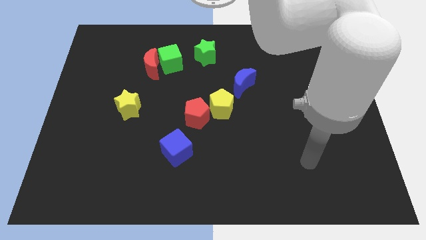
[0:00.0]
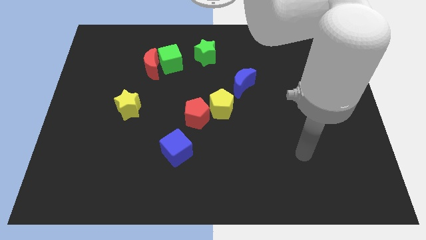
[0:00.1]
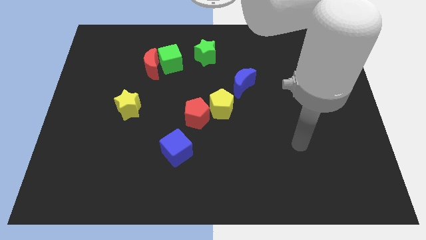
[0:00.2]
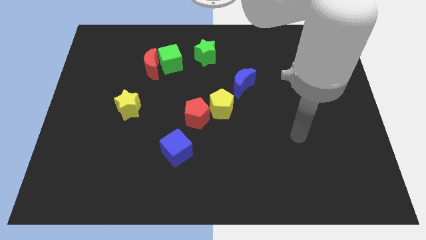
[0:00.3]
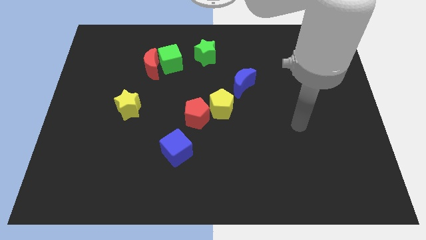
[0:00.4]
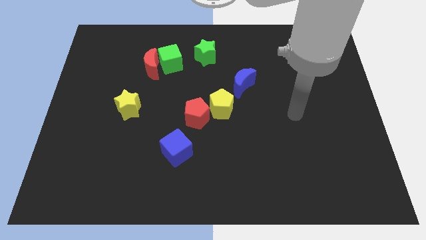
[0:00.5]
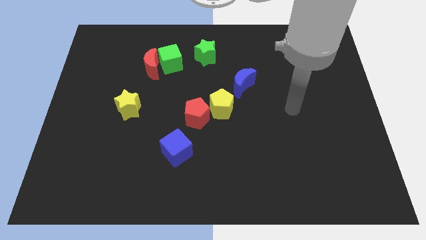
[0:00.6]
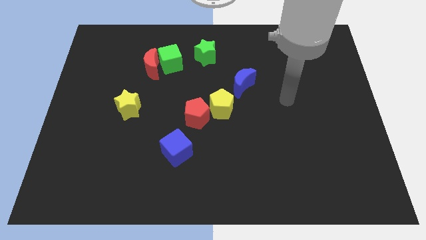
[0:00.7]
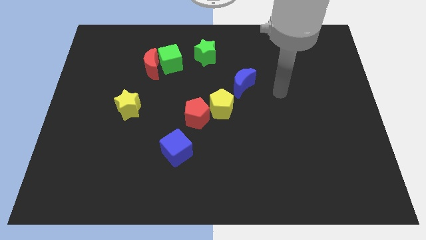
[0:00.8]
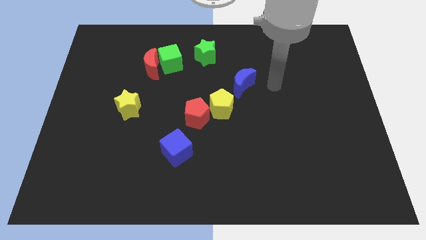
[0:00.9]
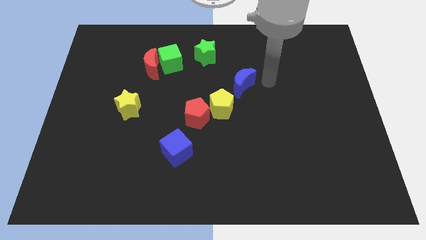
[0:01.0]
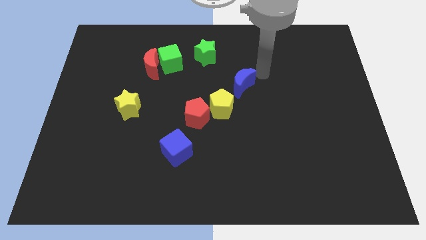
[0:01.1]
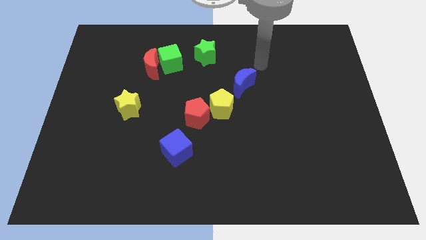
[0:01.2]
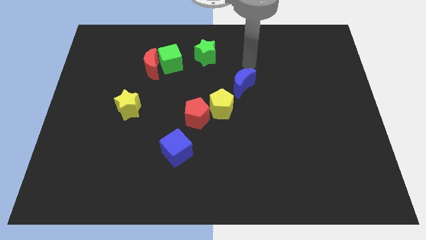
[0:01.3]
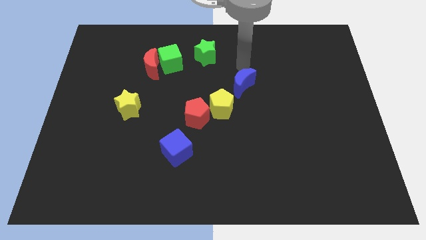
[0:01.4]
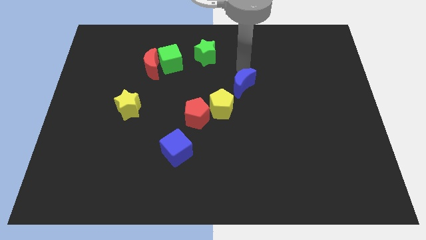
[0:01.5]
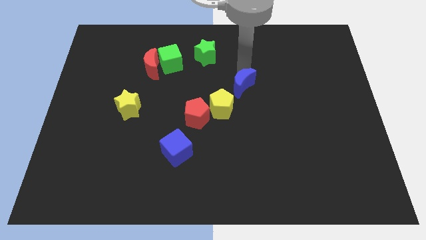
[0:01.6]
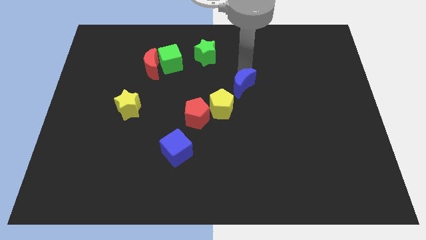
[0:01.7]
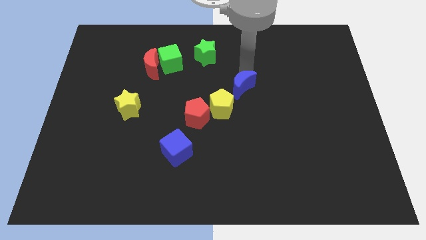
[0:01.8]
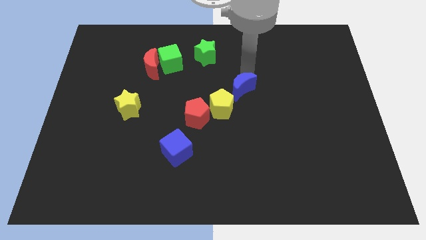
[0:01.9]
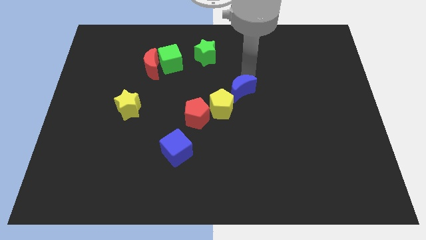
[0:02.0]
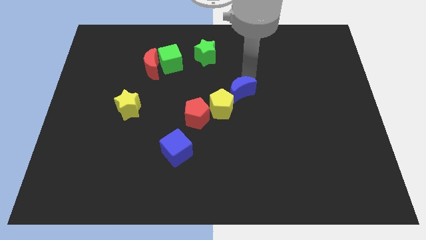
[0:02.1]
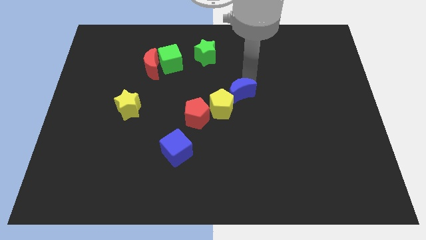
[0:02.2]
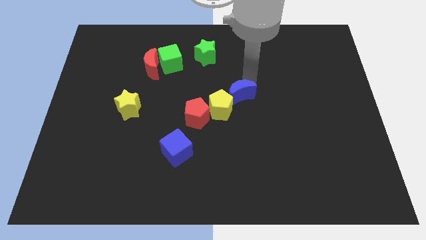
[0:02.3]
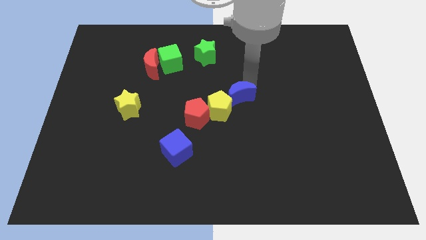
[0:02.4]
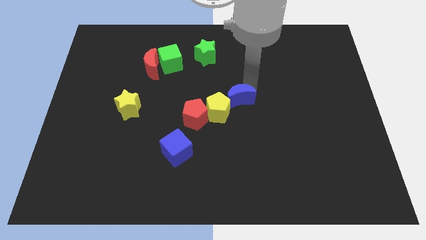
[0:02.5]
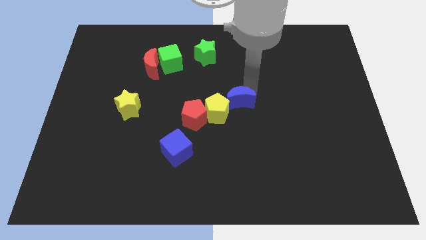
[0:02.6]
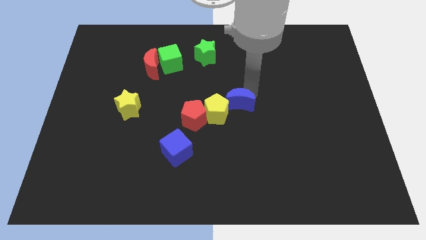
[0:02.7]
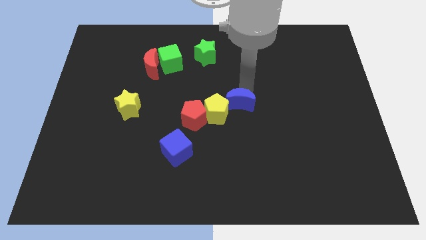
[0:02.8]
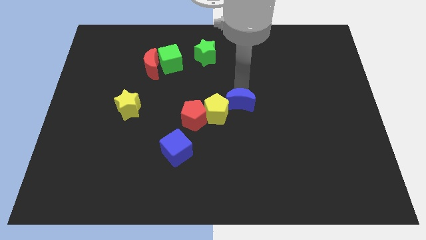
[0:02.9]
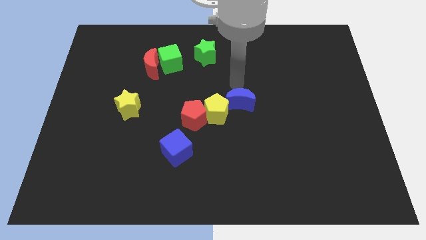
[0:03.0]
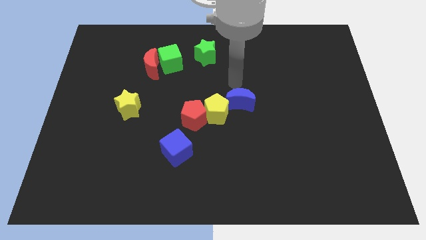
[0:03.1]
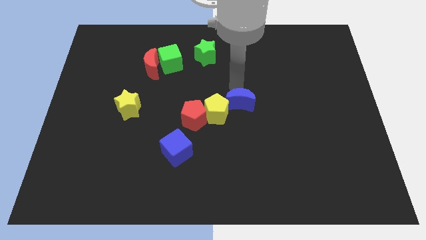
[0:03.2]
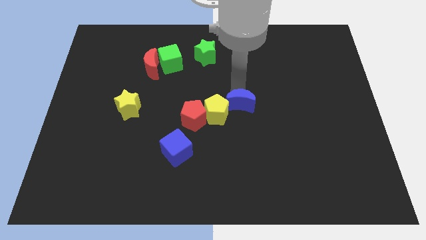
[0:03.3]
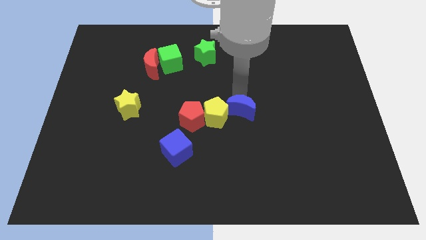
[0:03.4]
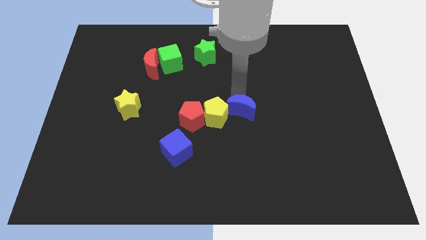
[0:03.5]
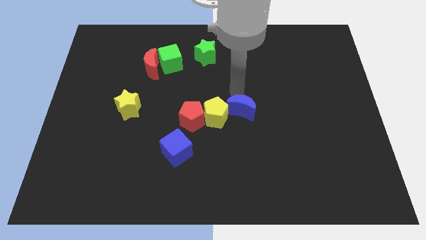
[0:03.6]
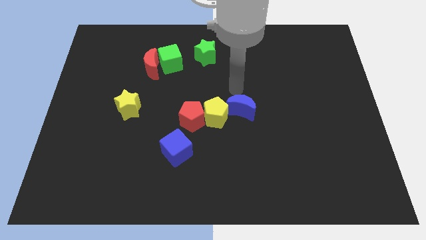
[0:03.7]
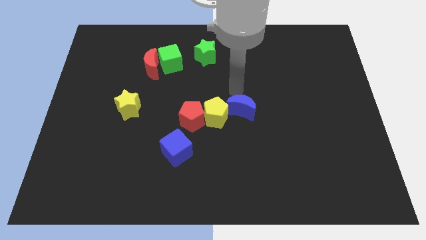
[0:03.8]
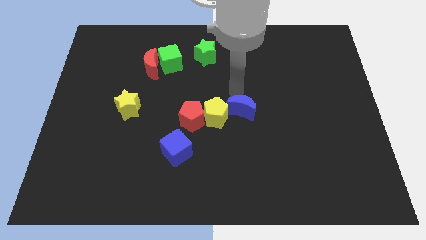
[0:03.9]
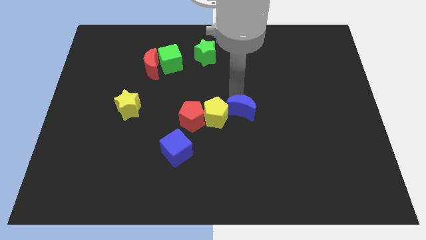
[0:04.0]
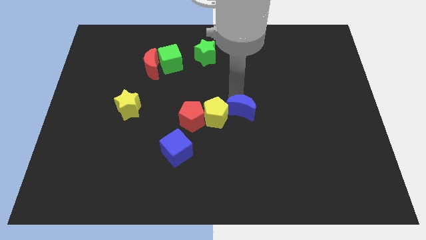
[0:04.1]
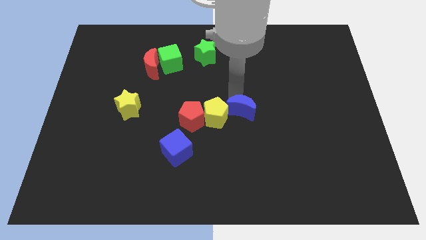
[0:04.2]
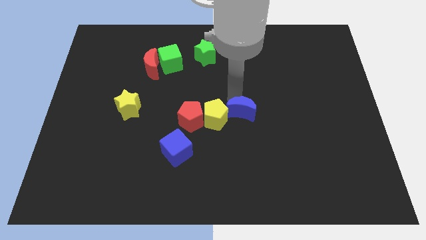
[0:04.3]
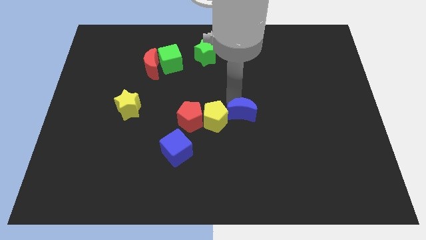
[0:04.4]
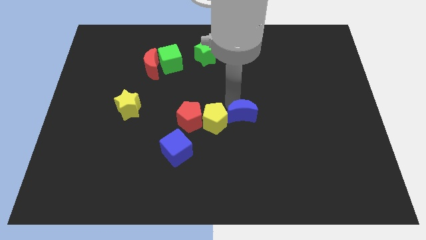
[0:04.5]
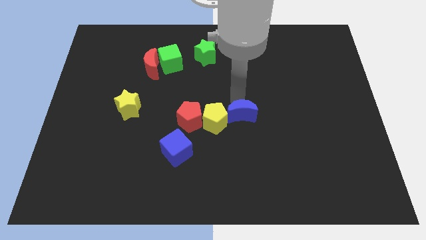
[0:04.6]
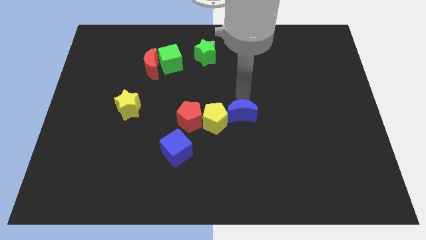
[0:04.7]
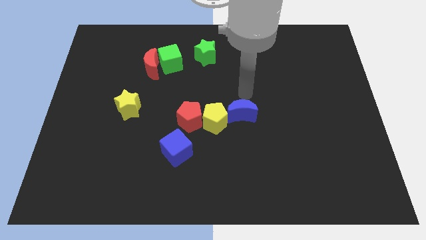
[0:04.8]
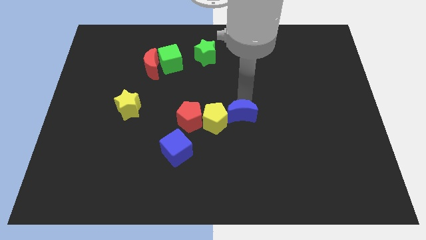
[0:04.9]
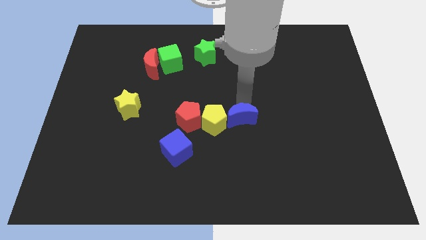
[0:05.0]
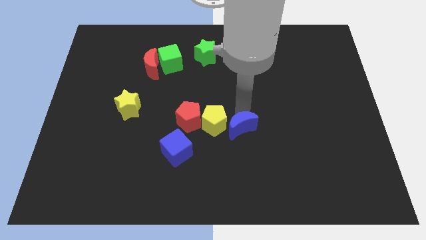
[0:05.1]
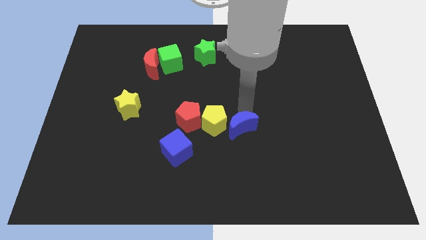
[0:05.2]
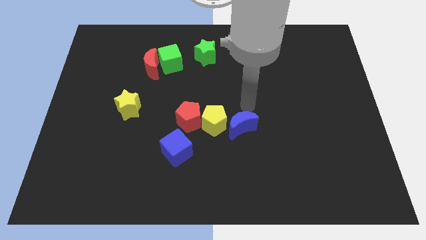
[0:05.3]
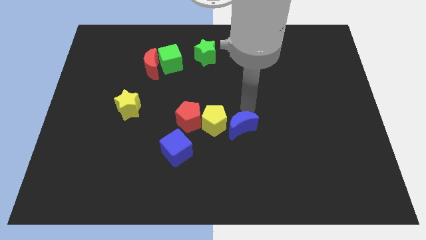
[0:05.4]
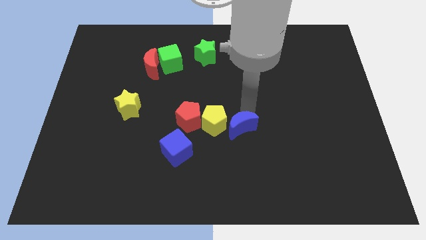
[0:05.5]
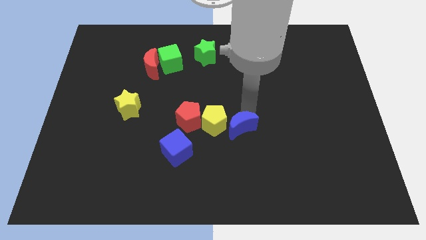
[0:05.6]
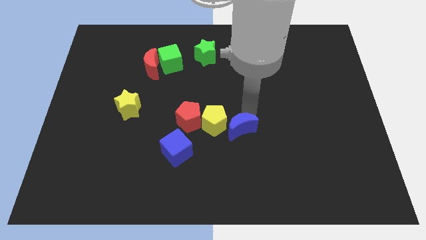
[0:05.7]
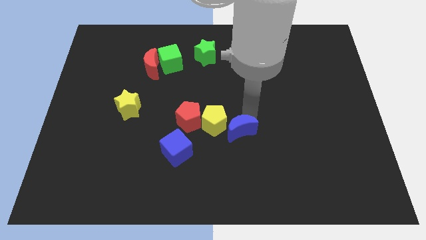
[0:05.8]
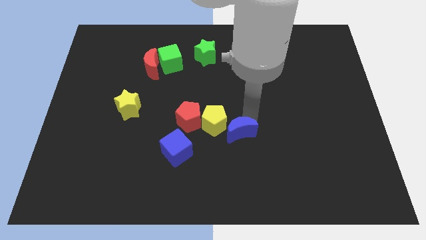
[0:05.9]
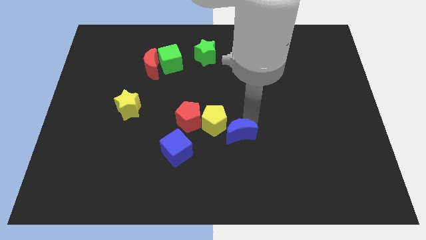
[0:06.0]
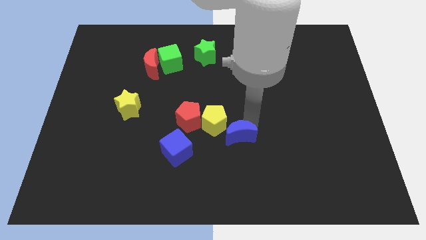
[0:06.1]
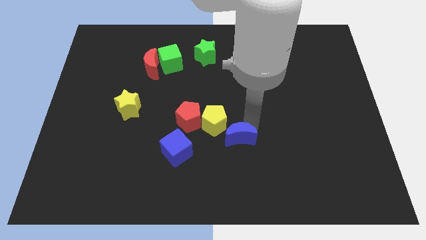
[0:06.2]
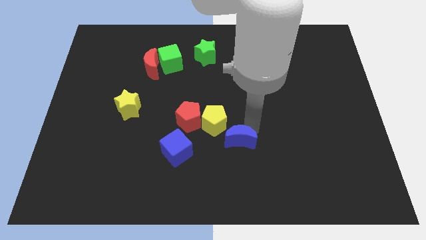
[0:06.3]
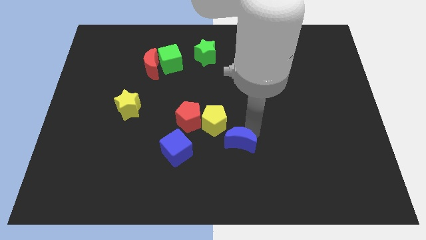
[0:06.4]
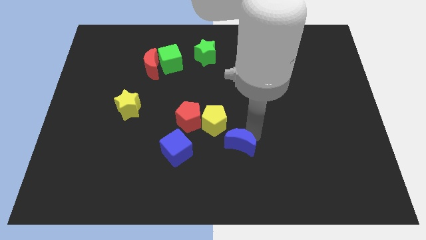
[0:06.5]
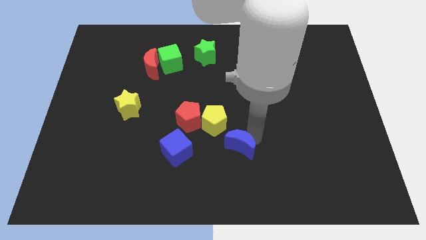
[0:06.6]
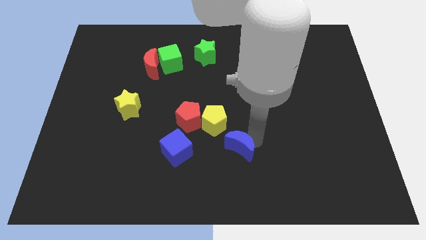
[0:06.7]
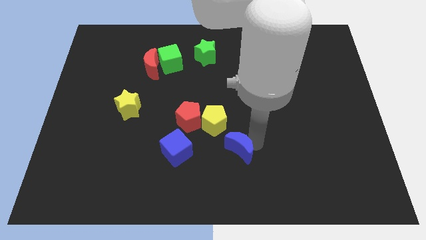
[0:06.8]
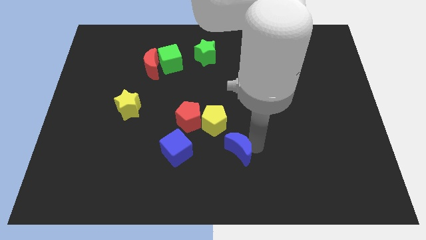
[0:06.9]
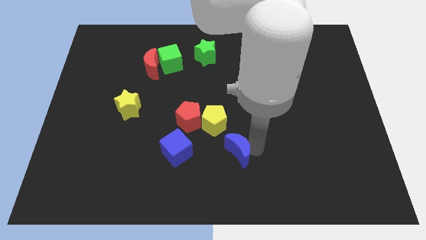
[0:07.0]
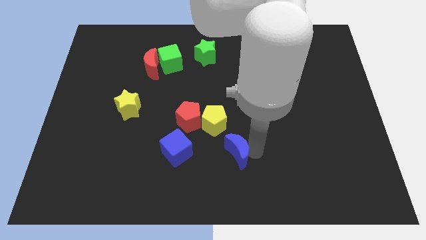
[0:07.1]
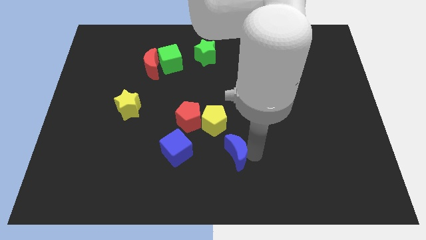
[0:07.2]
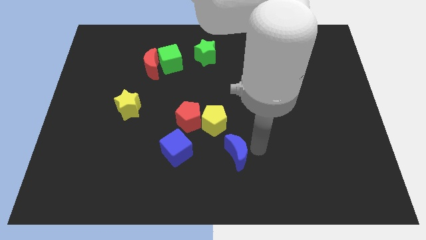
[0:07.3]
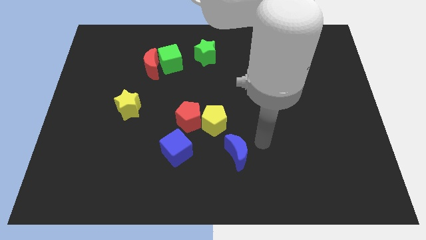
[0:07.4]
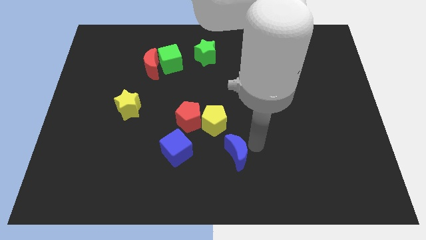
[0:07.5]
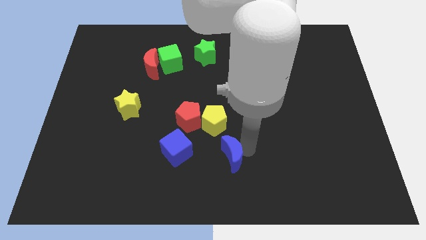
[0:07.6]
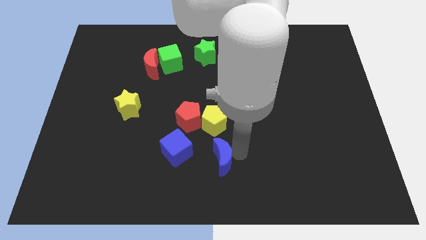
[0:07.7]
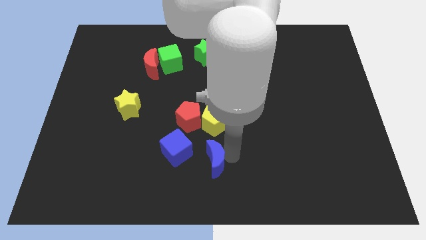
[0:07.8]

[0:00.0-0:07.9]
slide the blue moon to the bottom right of the blue cube
